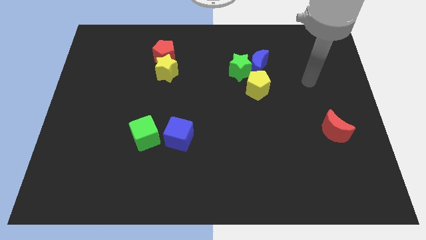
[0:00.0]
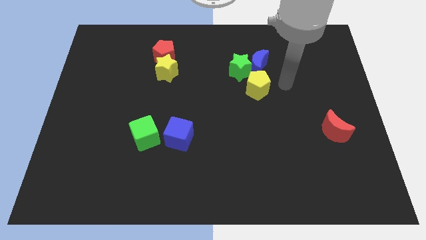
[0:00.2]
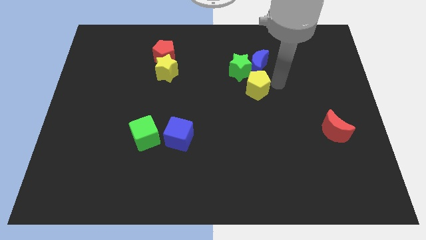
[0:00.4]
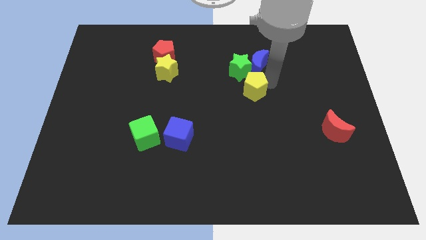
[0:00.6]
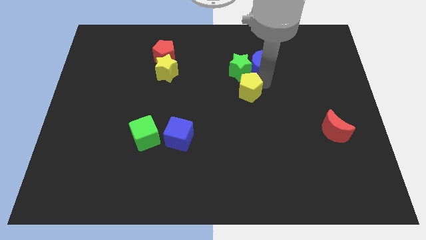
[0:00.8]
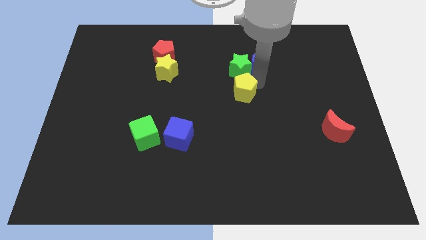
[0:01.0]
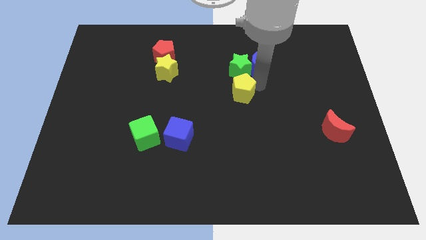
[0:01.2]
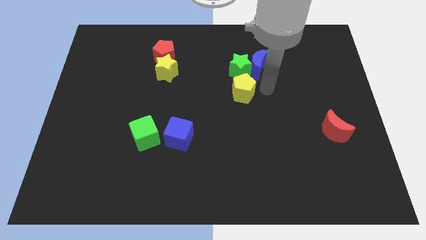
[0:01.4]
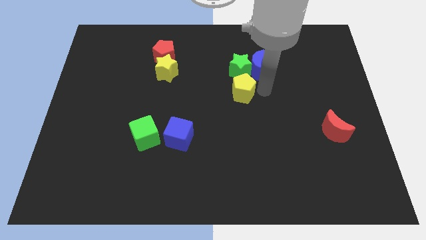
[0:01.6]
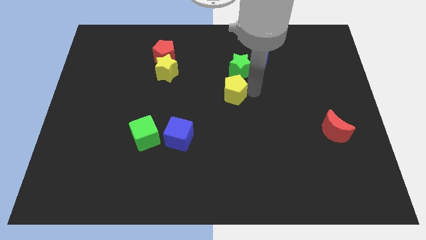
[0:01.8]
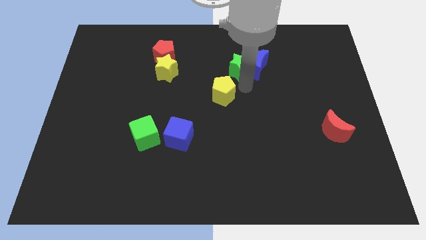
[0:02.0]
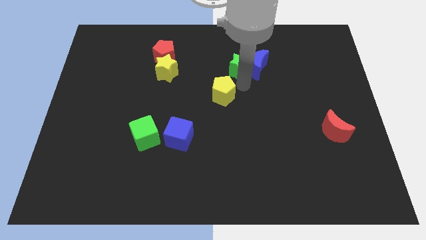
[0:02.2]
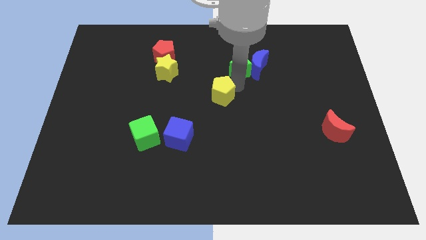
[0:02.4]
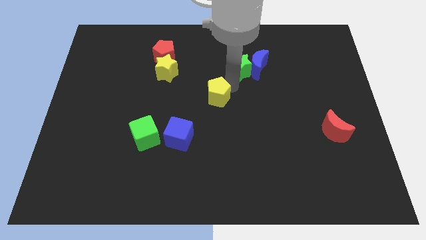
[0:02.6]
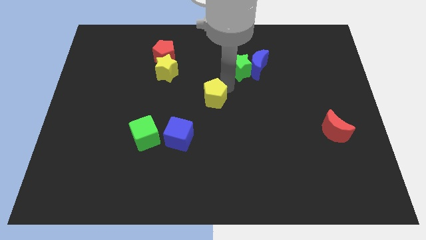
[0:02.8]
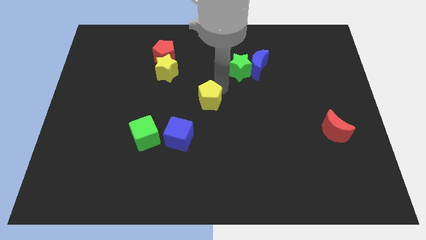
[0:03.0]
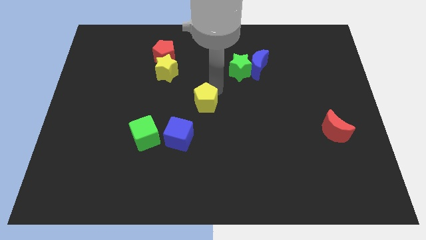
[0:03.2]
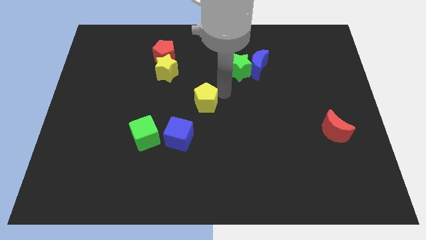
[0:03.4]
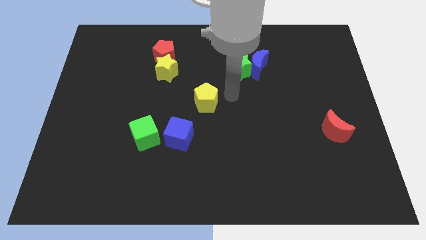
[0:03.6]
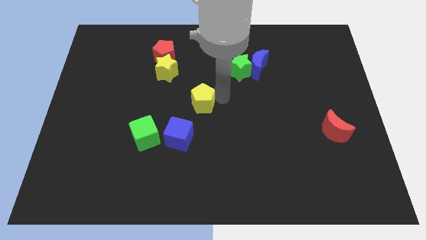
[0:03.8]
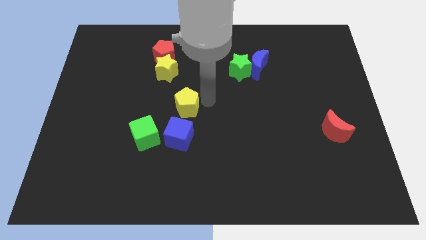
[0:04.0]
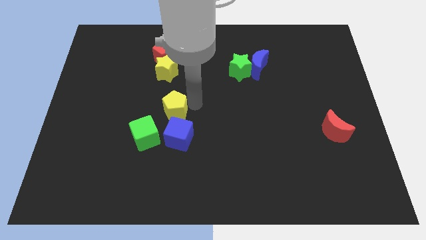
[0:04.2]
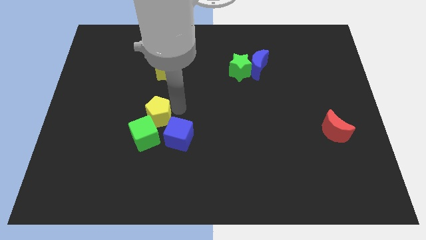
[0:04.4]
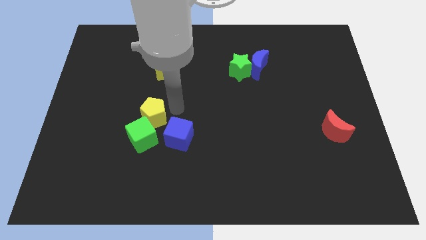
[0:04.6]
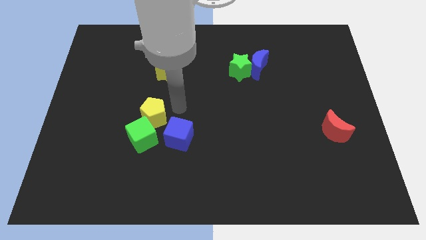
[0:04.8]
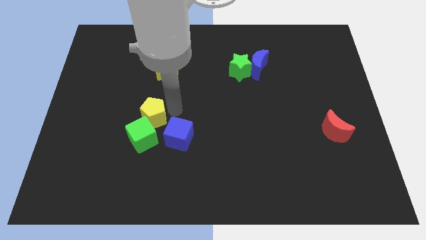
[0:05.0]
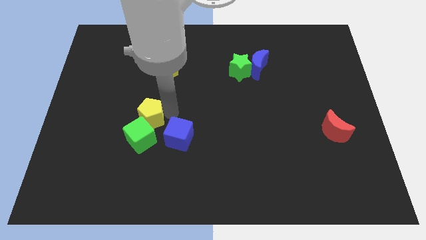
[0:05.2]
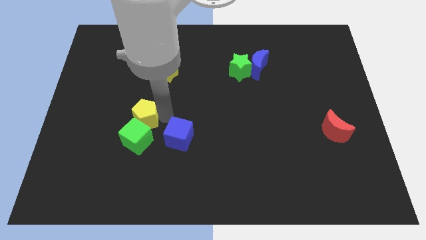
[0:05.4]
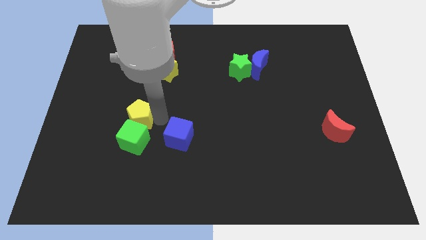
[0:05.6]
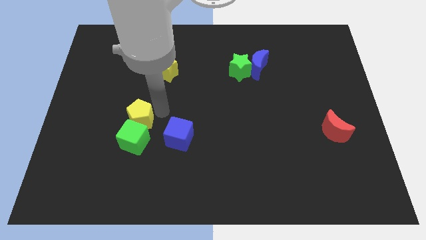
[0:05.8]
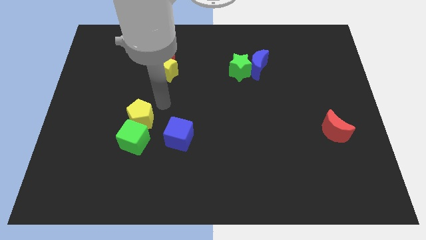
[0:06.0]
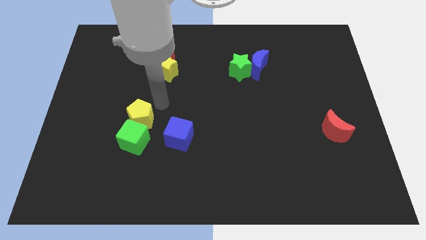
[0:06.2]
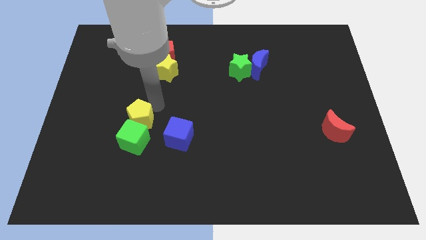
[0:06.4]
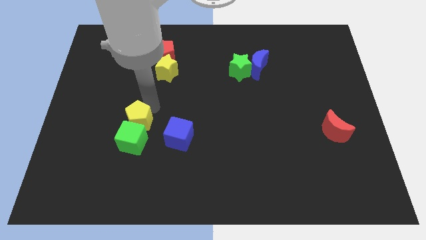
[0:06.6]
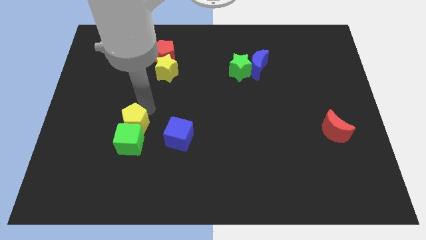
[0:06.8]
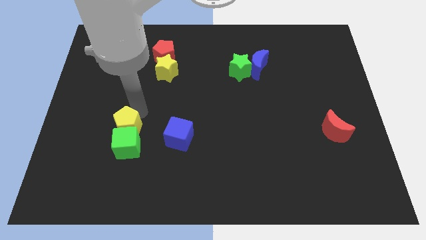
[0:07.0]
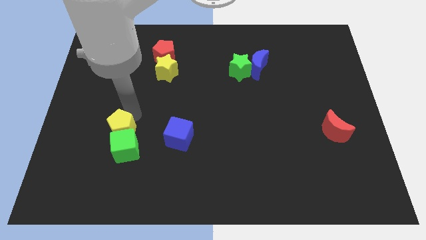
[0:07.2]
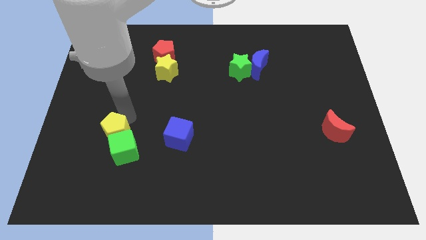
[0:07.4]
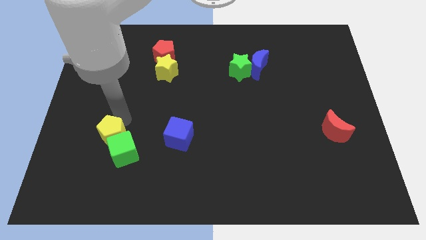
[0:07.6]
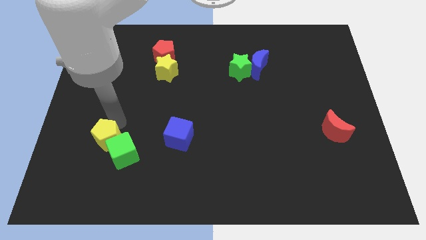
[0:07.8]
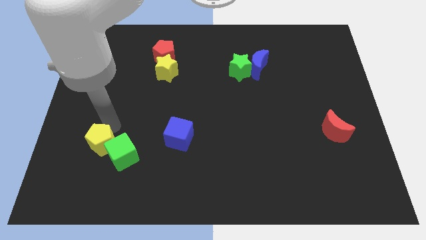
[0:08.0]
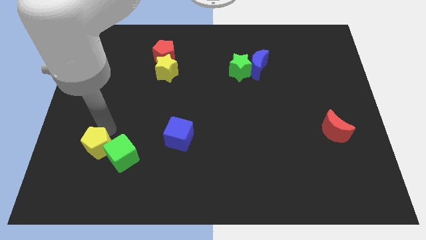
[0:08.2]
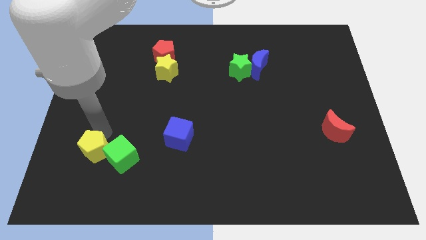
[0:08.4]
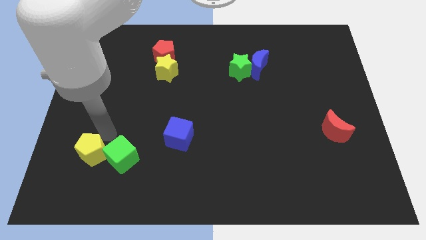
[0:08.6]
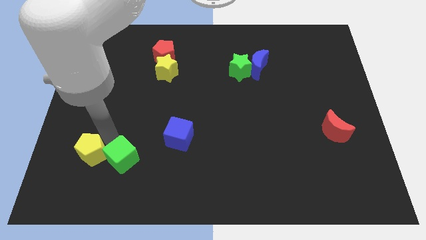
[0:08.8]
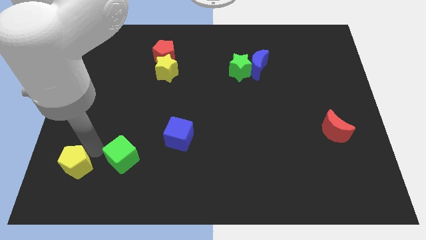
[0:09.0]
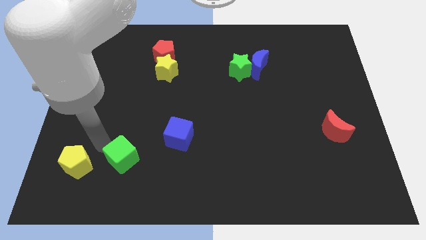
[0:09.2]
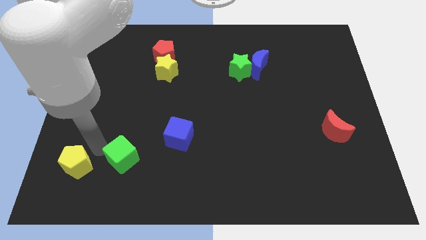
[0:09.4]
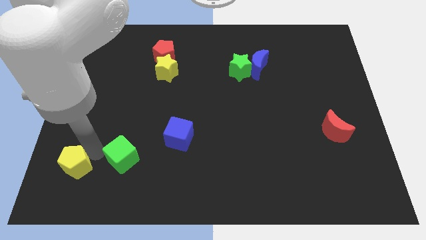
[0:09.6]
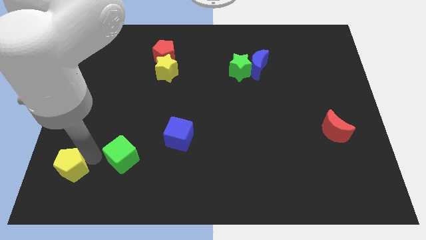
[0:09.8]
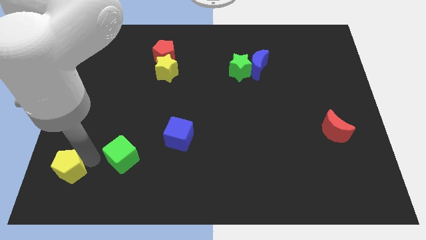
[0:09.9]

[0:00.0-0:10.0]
slide the yellow pentagon to the bottom left corner

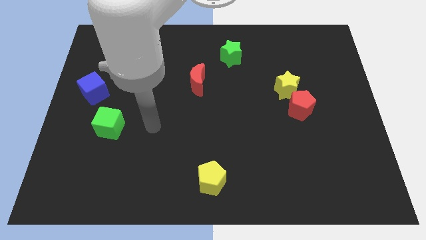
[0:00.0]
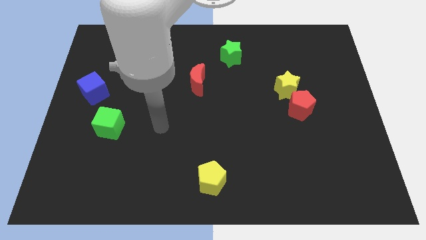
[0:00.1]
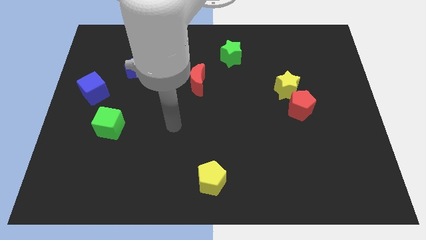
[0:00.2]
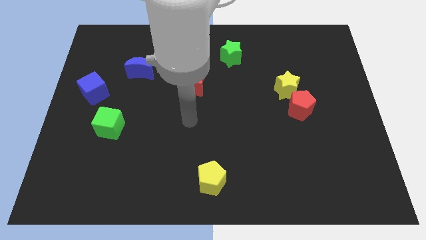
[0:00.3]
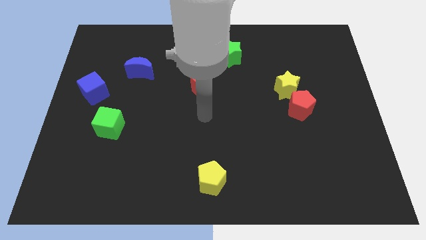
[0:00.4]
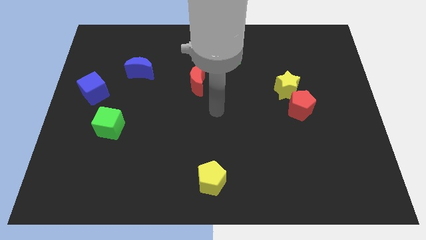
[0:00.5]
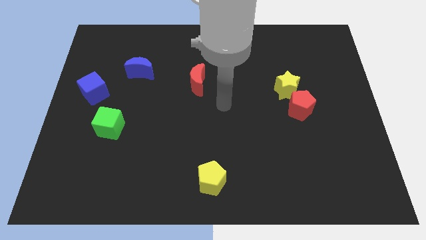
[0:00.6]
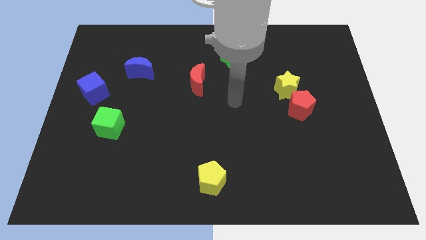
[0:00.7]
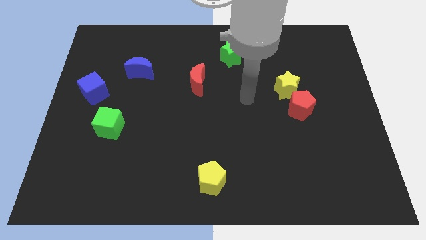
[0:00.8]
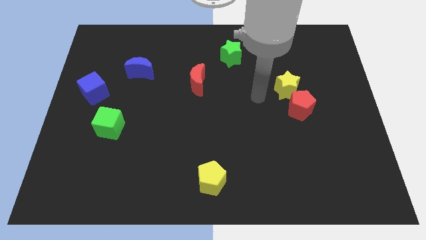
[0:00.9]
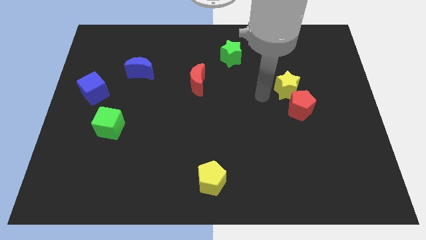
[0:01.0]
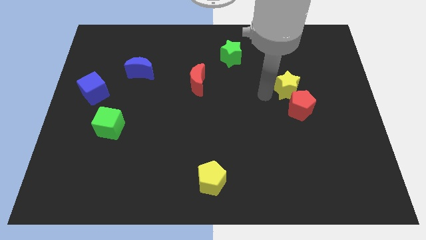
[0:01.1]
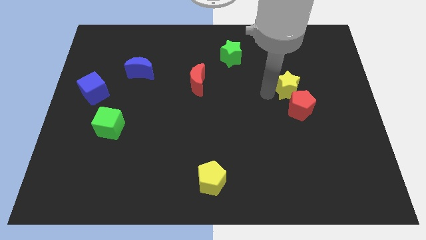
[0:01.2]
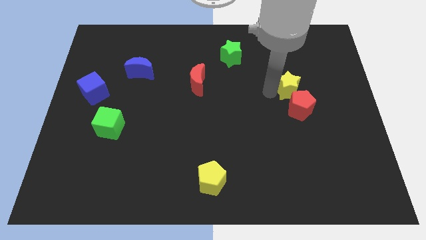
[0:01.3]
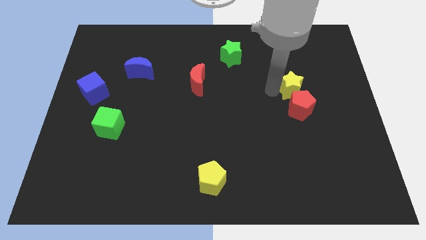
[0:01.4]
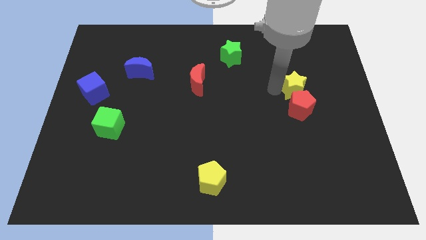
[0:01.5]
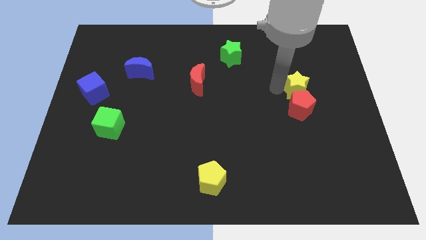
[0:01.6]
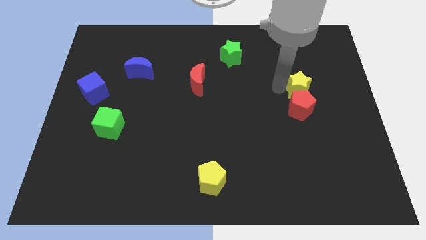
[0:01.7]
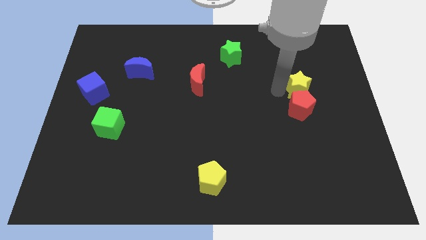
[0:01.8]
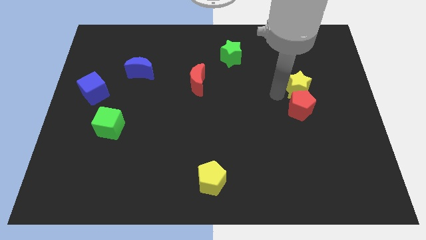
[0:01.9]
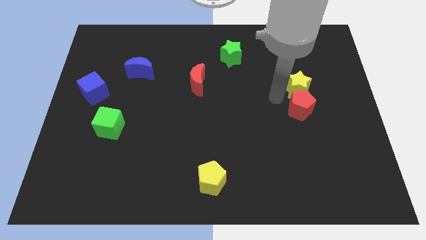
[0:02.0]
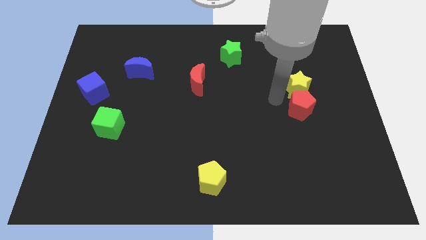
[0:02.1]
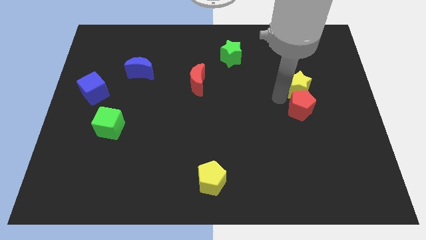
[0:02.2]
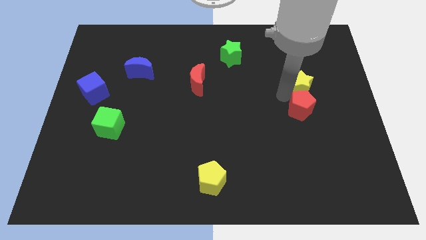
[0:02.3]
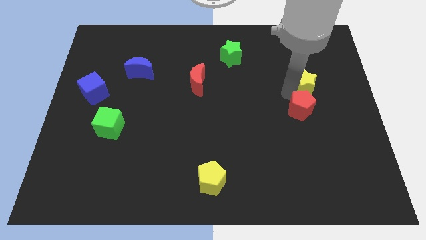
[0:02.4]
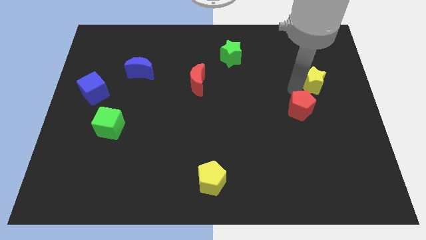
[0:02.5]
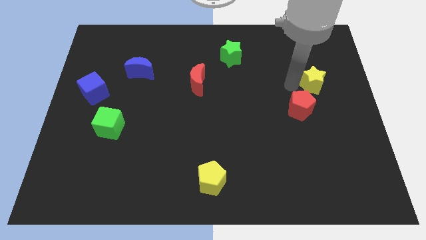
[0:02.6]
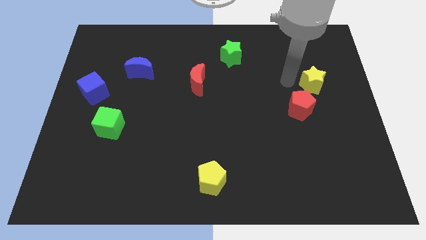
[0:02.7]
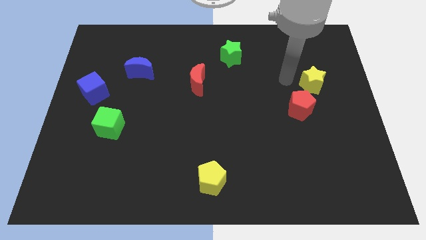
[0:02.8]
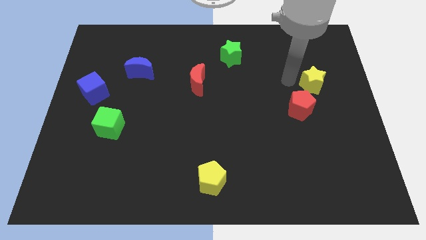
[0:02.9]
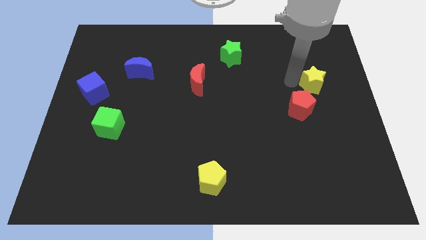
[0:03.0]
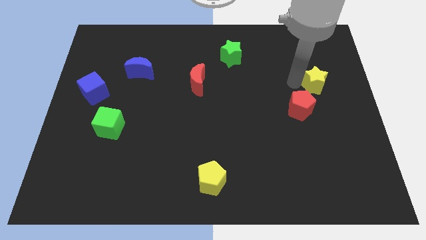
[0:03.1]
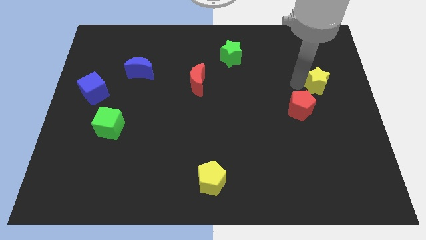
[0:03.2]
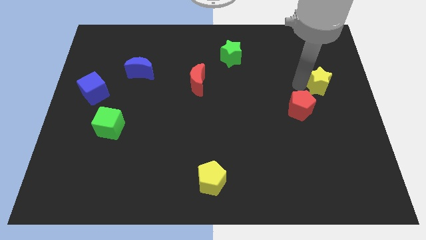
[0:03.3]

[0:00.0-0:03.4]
put the yellow star to the center right
